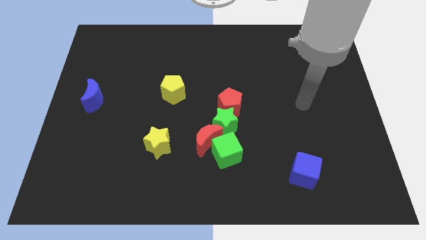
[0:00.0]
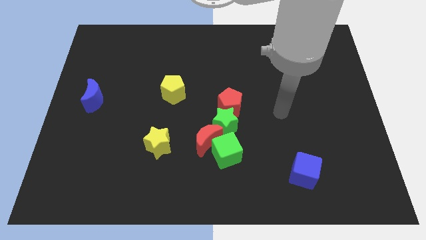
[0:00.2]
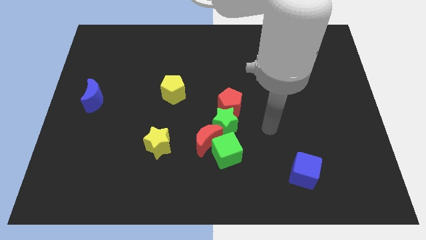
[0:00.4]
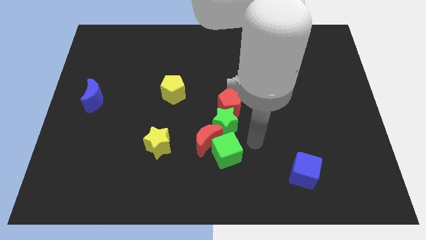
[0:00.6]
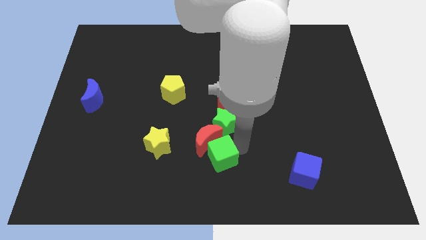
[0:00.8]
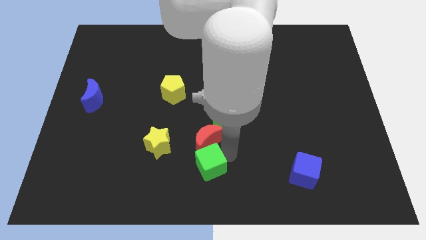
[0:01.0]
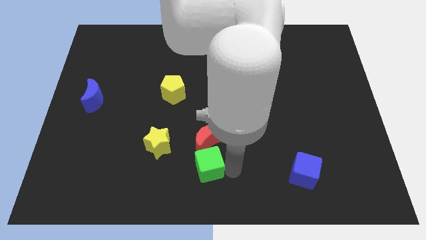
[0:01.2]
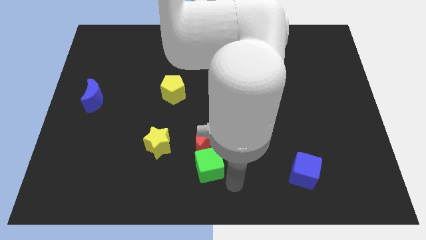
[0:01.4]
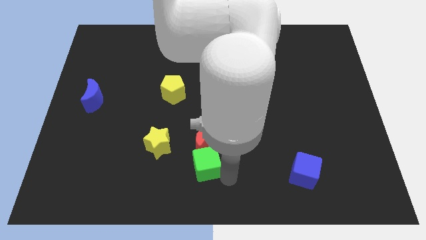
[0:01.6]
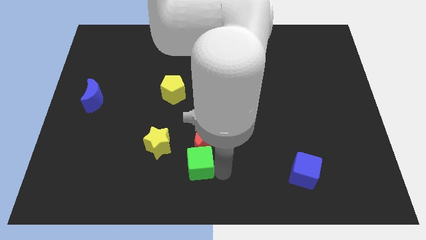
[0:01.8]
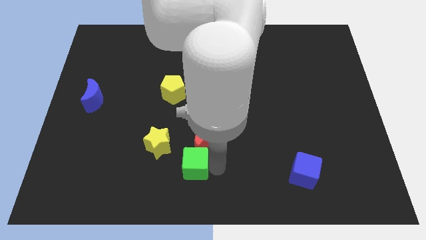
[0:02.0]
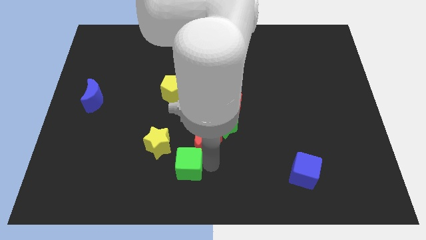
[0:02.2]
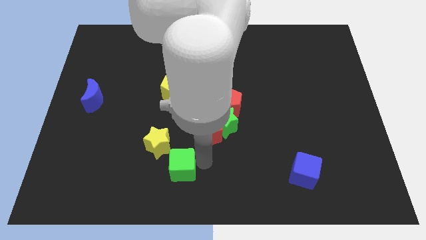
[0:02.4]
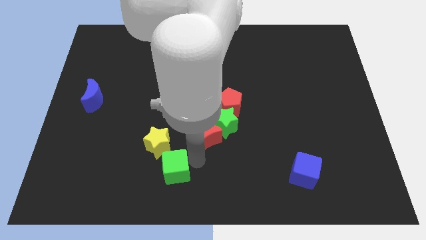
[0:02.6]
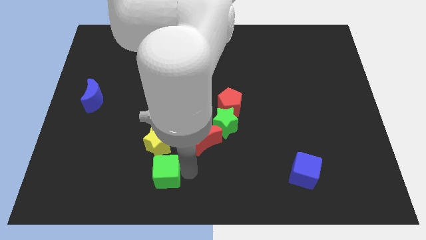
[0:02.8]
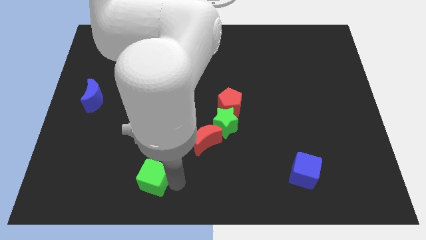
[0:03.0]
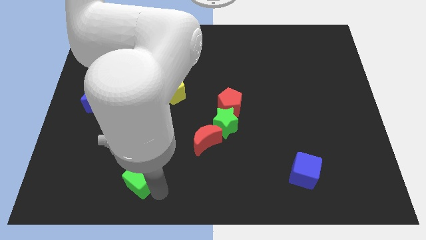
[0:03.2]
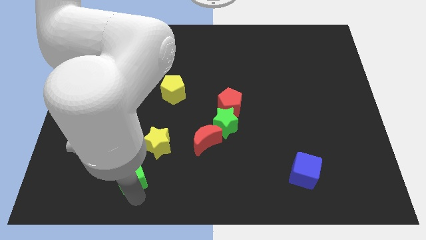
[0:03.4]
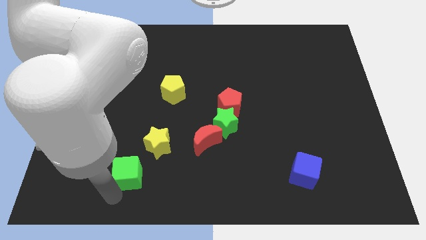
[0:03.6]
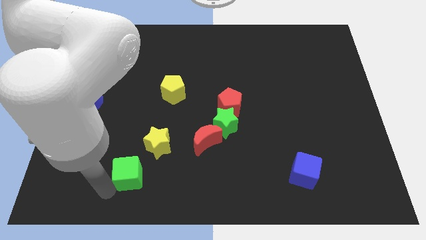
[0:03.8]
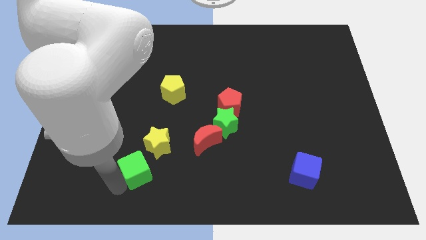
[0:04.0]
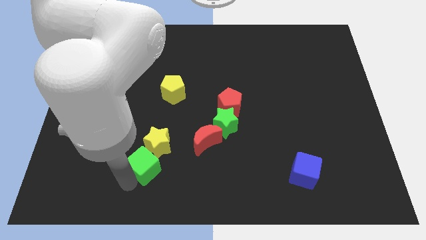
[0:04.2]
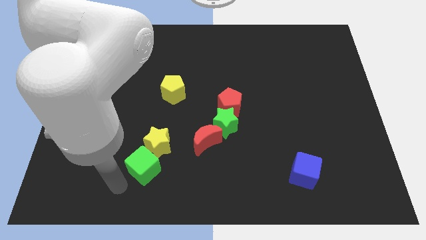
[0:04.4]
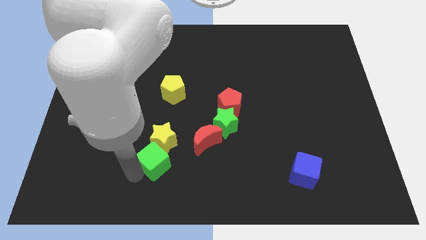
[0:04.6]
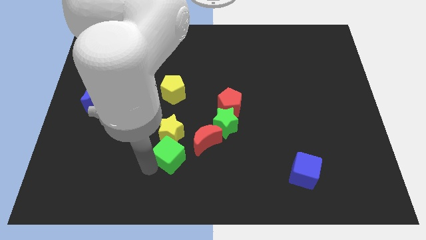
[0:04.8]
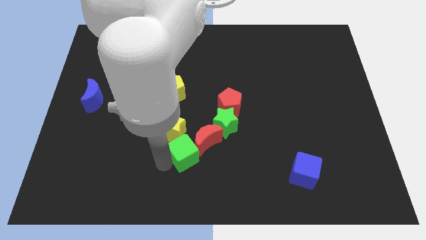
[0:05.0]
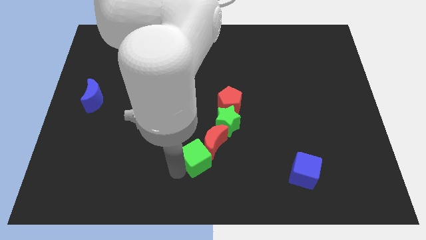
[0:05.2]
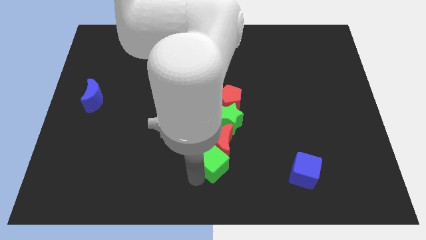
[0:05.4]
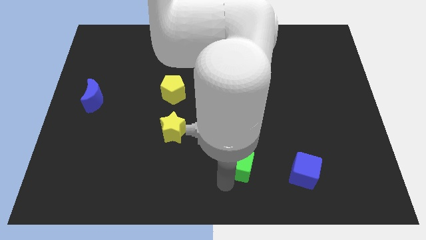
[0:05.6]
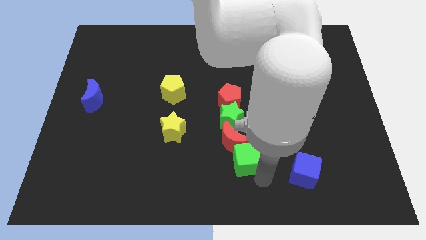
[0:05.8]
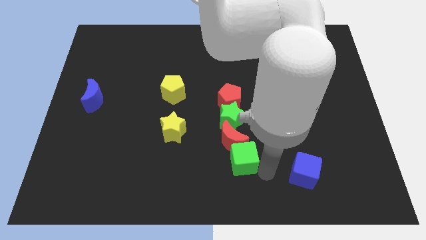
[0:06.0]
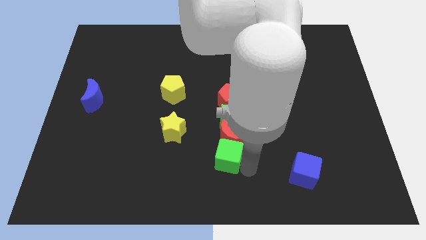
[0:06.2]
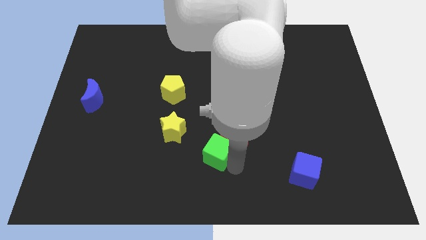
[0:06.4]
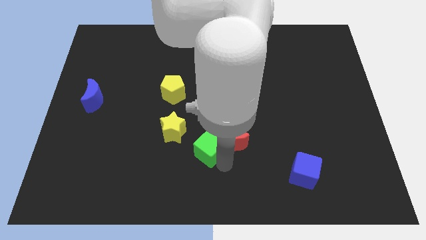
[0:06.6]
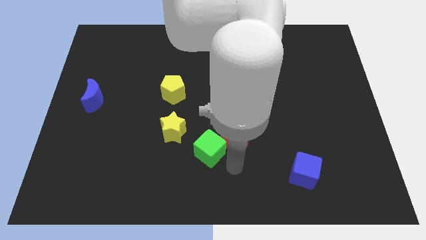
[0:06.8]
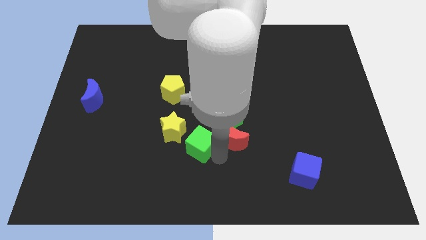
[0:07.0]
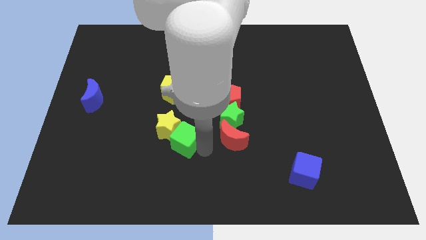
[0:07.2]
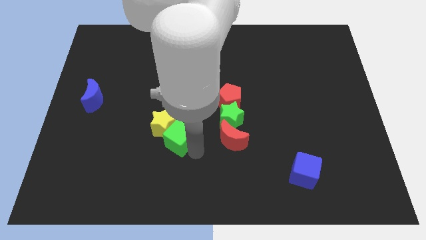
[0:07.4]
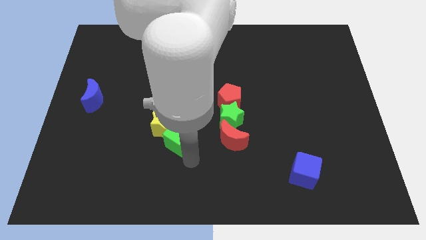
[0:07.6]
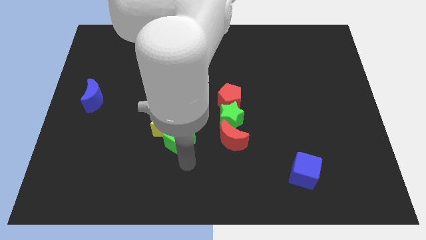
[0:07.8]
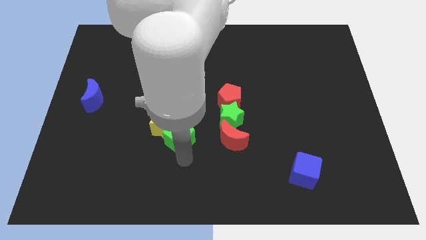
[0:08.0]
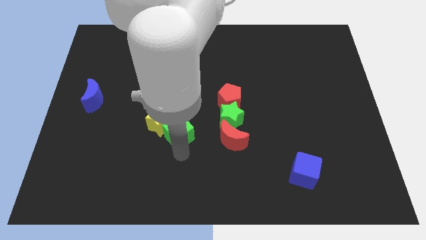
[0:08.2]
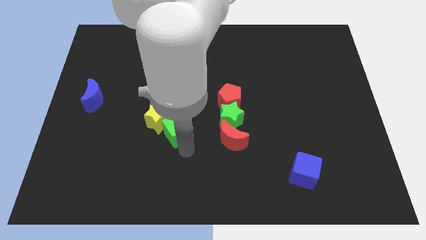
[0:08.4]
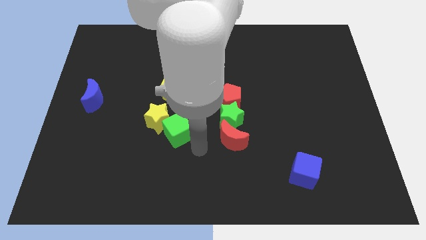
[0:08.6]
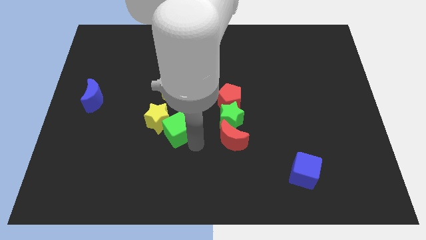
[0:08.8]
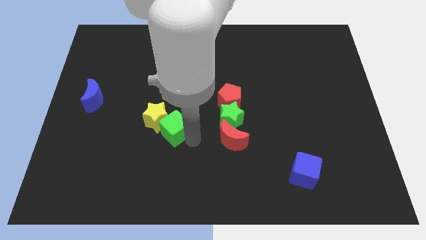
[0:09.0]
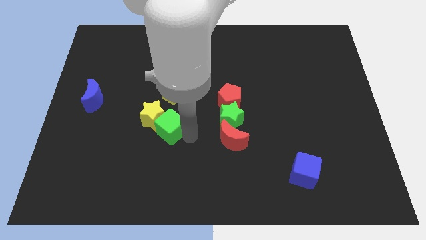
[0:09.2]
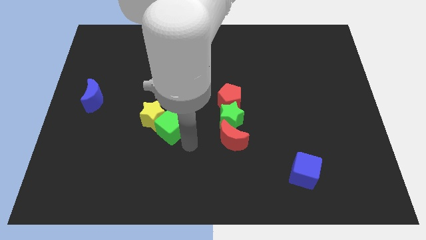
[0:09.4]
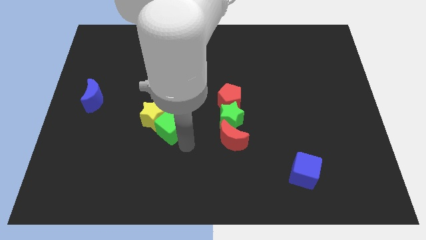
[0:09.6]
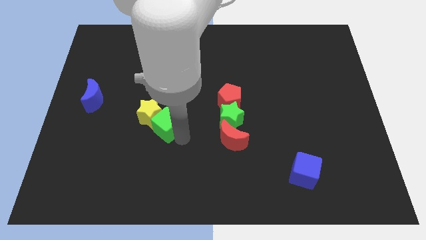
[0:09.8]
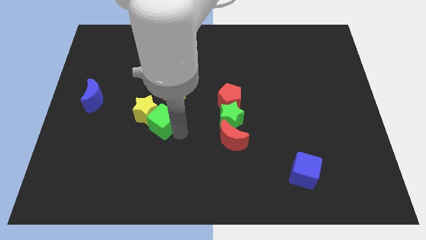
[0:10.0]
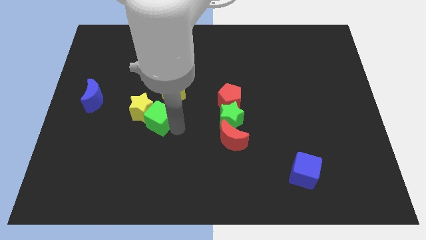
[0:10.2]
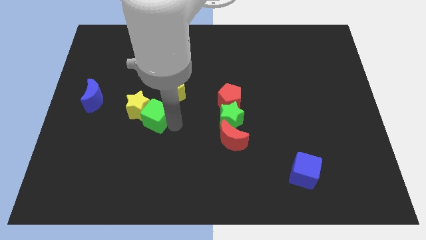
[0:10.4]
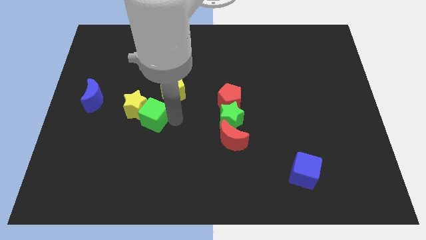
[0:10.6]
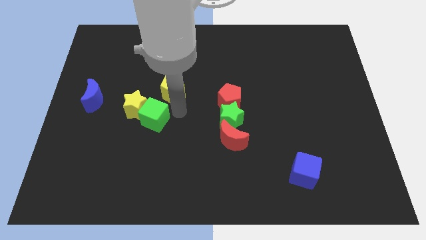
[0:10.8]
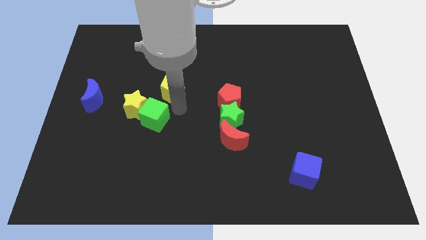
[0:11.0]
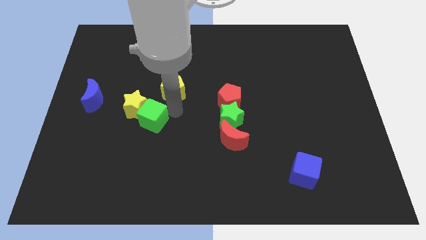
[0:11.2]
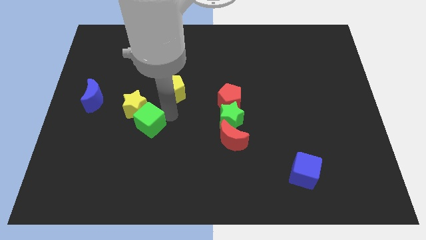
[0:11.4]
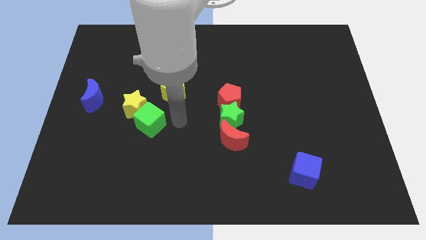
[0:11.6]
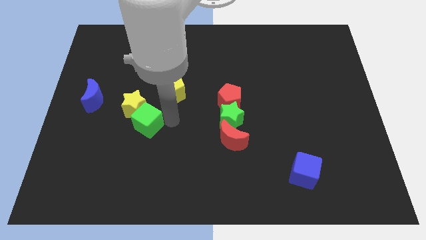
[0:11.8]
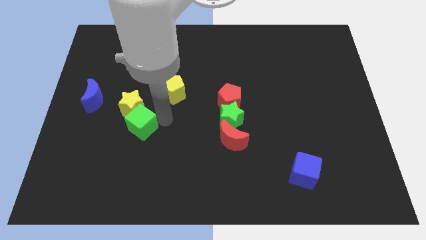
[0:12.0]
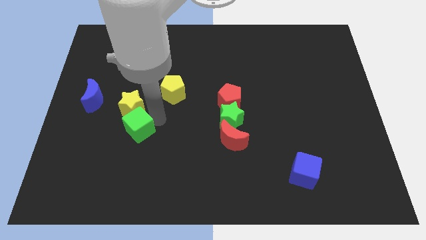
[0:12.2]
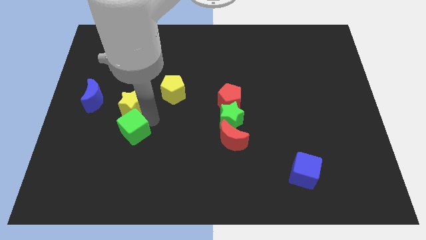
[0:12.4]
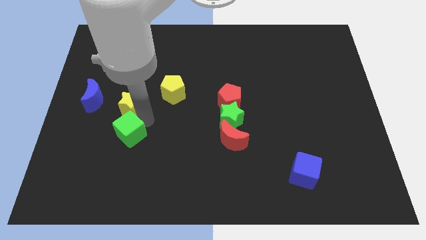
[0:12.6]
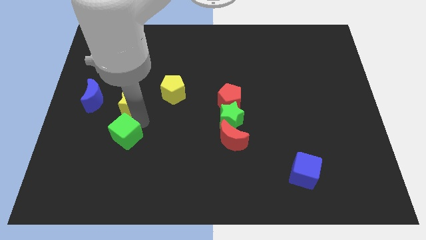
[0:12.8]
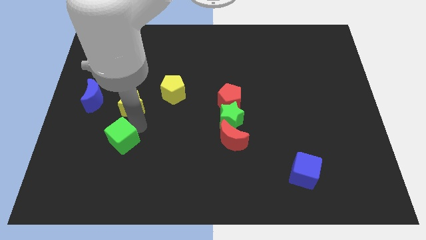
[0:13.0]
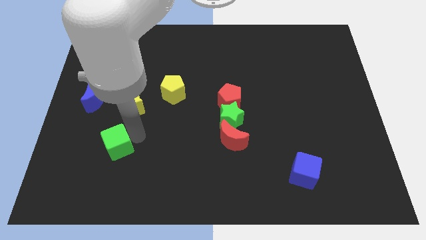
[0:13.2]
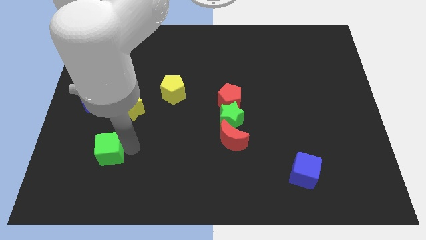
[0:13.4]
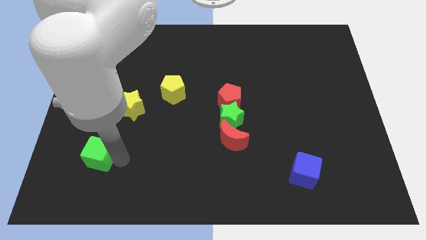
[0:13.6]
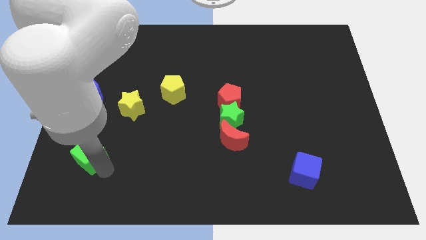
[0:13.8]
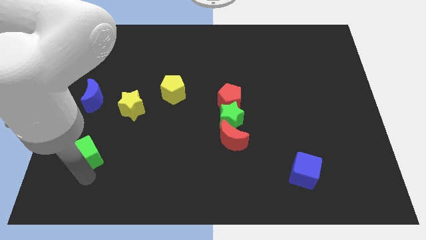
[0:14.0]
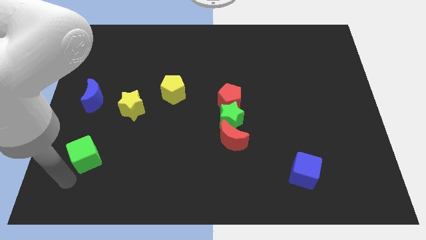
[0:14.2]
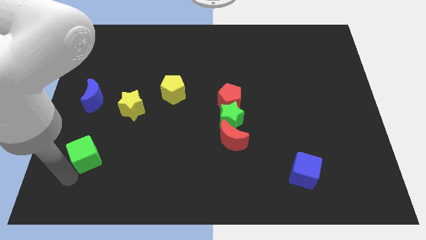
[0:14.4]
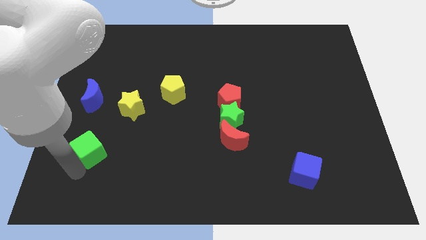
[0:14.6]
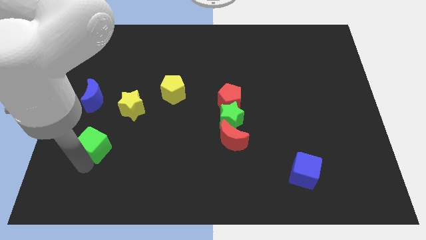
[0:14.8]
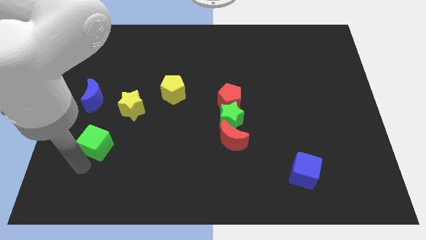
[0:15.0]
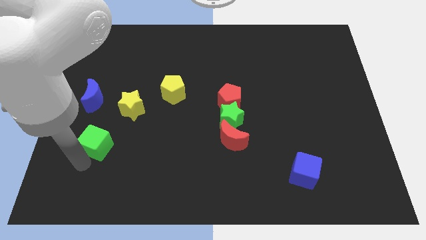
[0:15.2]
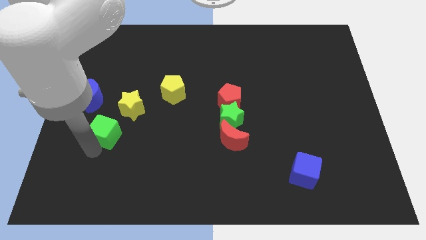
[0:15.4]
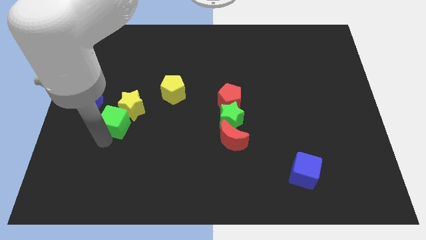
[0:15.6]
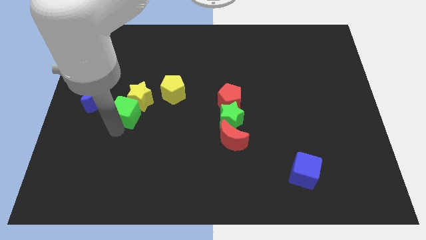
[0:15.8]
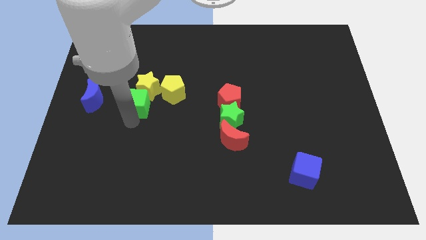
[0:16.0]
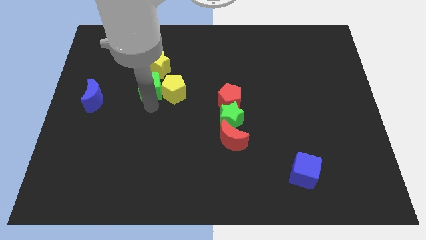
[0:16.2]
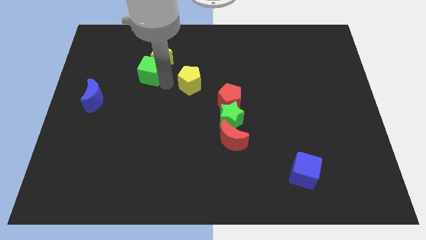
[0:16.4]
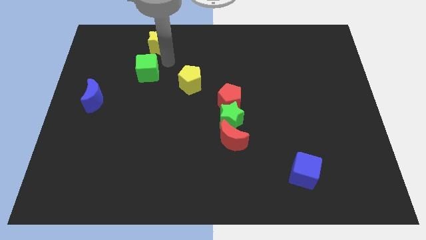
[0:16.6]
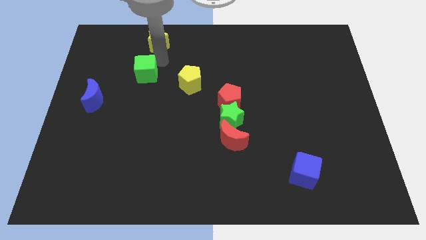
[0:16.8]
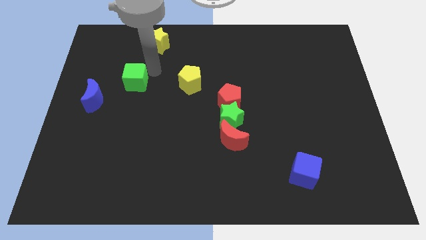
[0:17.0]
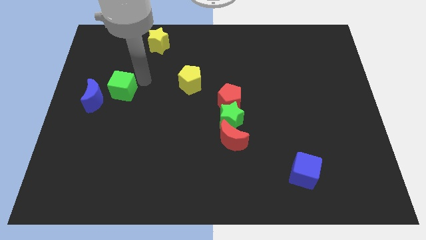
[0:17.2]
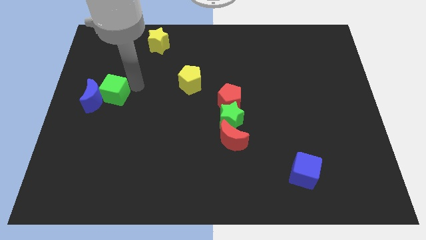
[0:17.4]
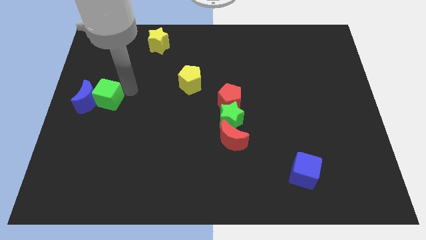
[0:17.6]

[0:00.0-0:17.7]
slide the green cube to the left side
